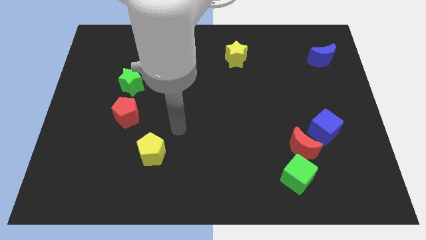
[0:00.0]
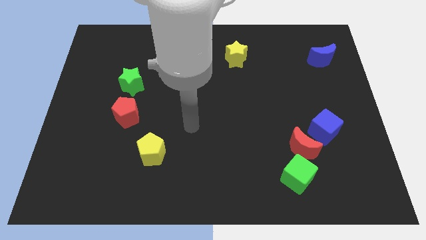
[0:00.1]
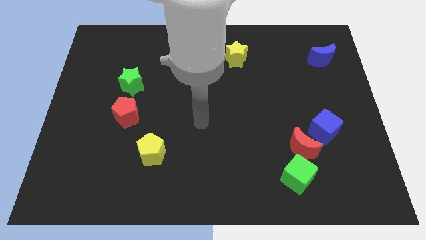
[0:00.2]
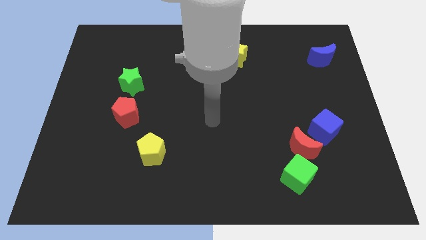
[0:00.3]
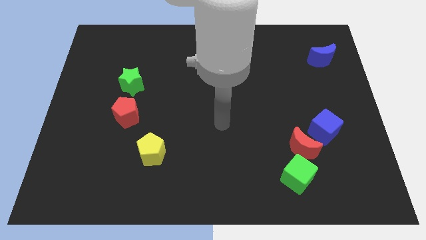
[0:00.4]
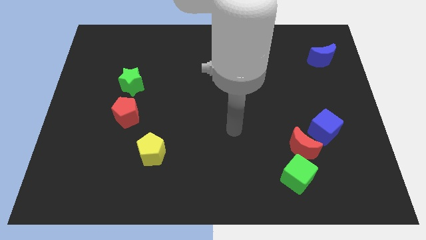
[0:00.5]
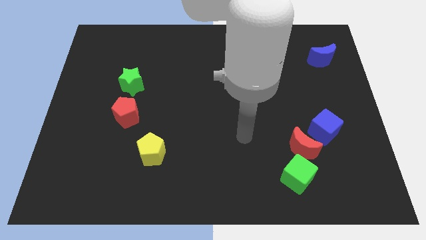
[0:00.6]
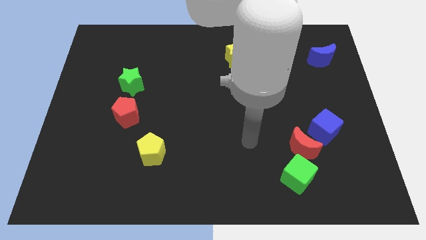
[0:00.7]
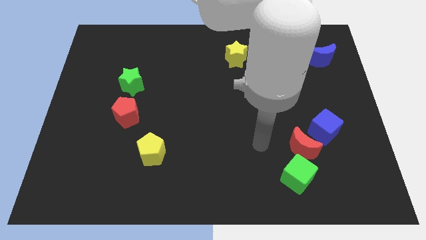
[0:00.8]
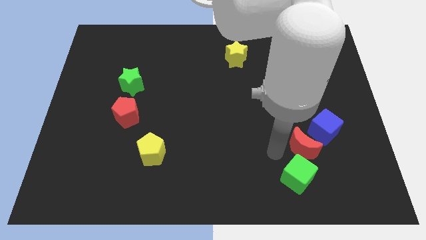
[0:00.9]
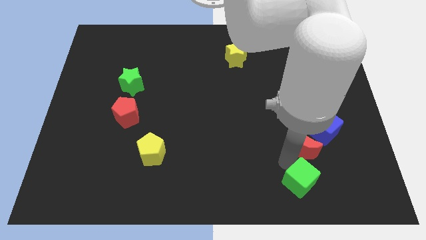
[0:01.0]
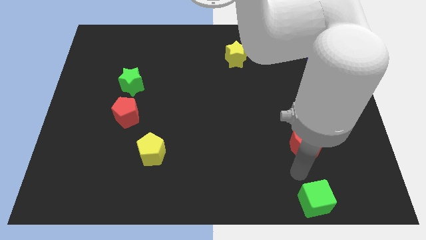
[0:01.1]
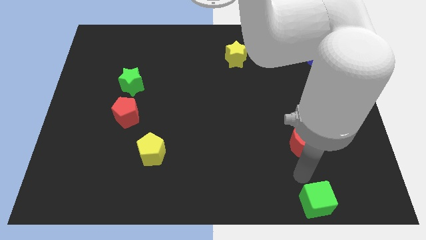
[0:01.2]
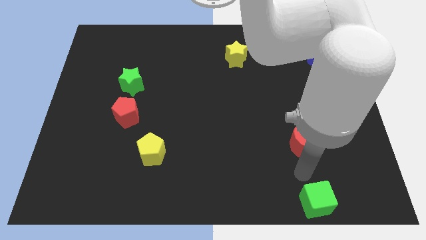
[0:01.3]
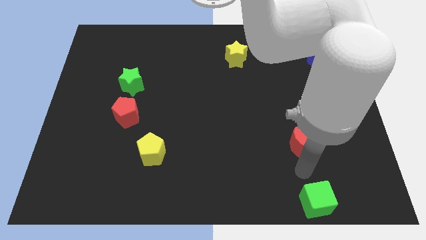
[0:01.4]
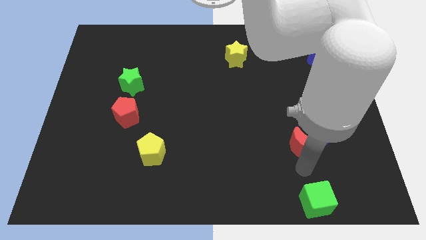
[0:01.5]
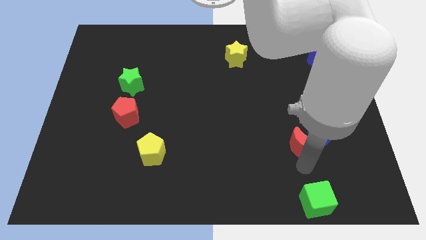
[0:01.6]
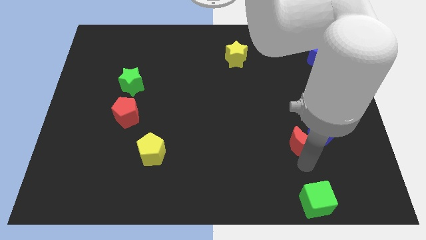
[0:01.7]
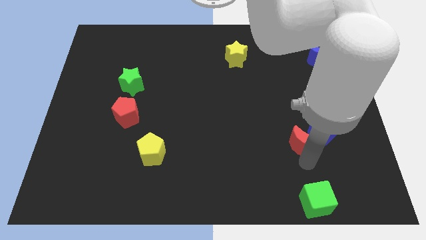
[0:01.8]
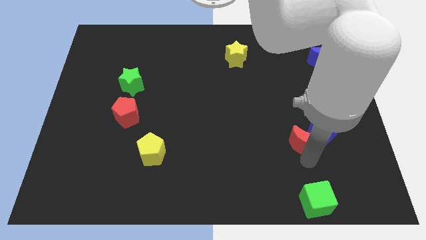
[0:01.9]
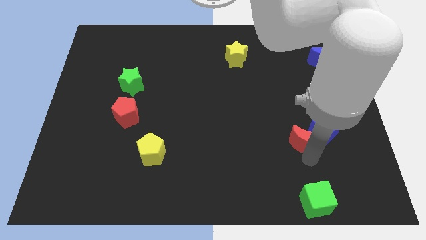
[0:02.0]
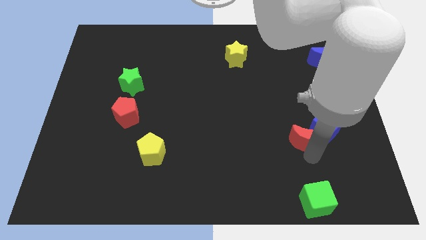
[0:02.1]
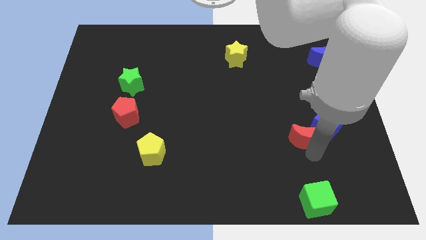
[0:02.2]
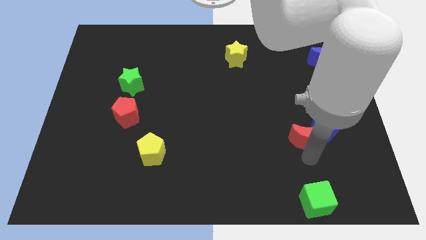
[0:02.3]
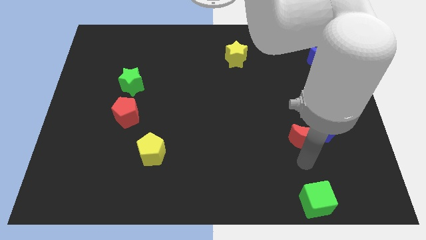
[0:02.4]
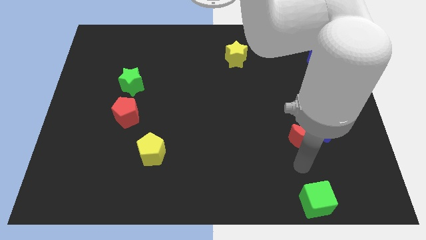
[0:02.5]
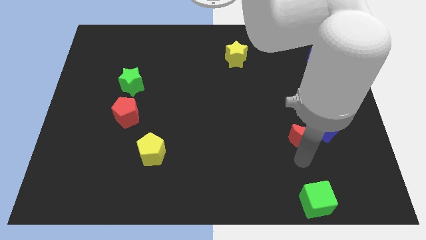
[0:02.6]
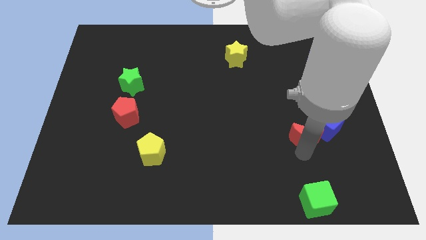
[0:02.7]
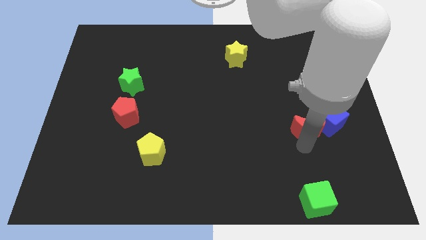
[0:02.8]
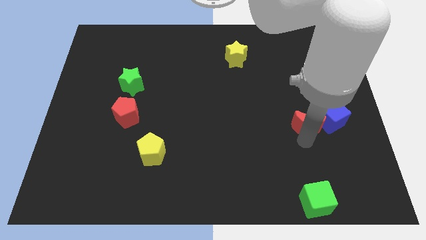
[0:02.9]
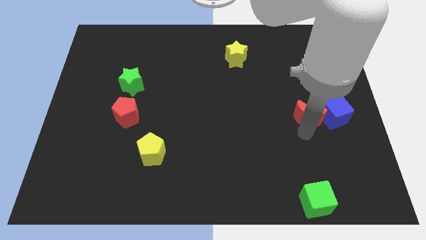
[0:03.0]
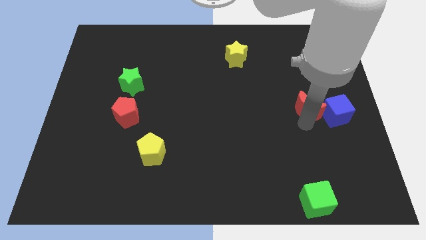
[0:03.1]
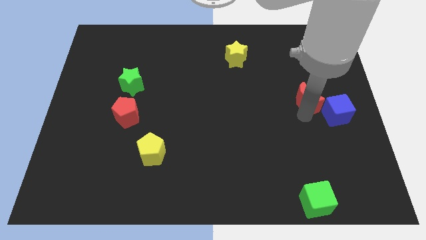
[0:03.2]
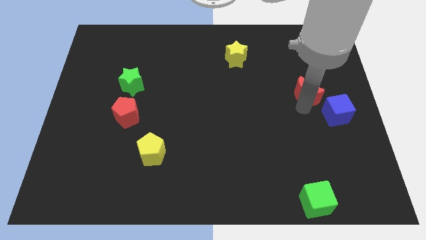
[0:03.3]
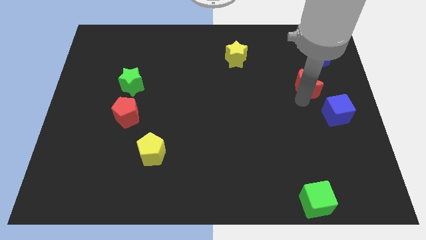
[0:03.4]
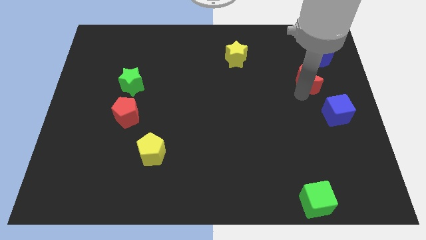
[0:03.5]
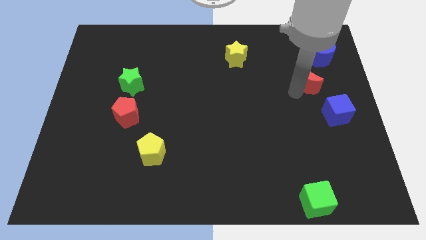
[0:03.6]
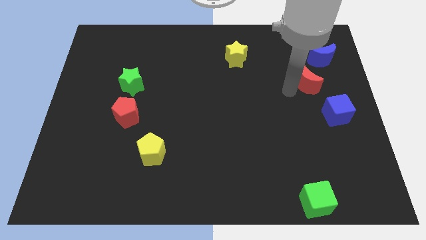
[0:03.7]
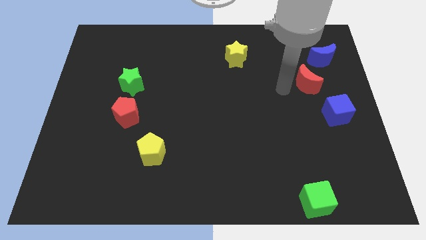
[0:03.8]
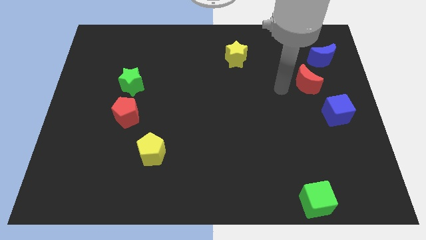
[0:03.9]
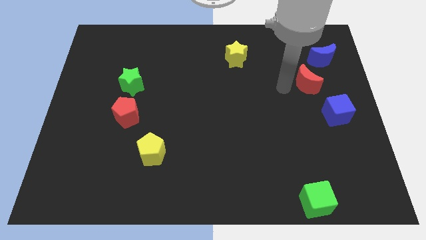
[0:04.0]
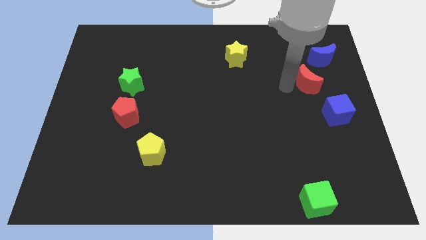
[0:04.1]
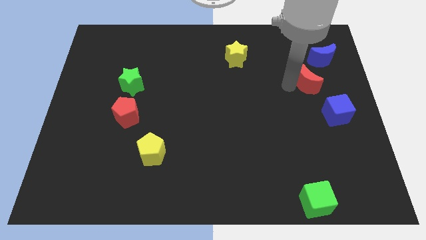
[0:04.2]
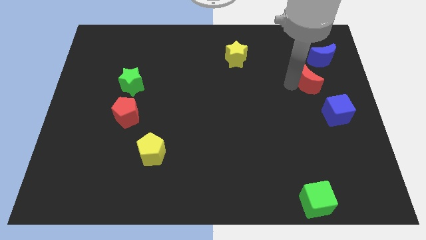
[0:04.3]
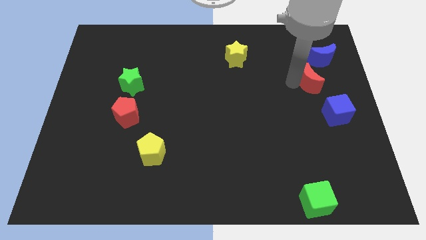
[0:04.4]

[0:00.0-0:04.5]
push the red moon above the blue cube

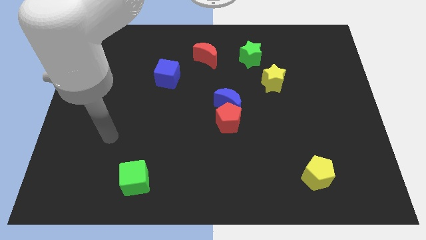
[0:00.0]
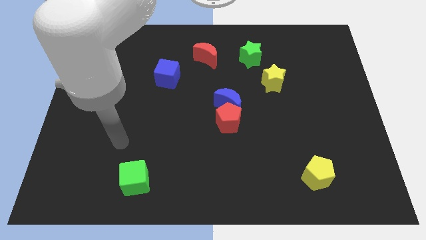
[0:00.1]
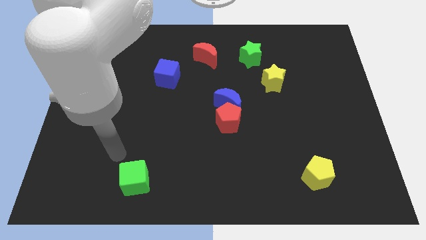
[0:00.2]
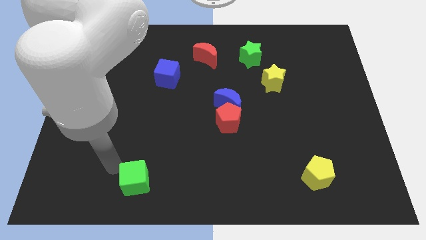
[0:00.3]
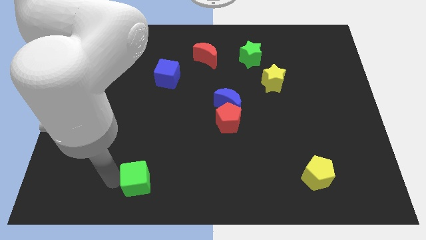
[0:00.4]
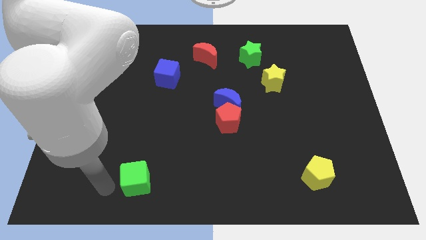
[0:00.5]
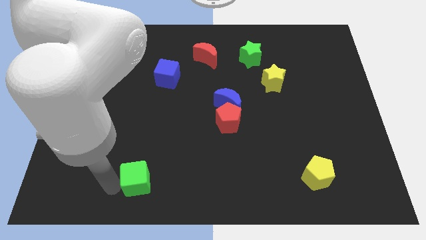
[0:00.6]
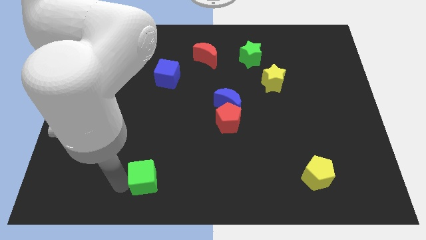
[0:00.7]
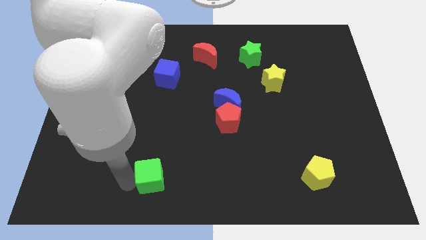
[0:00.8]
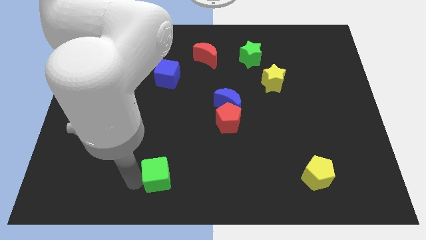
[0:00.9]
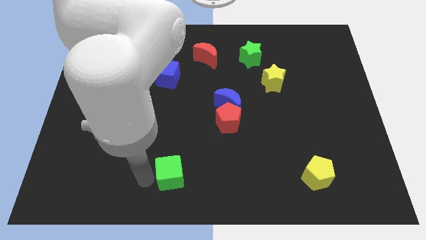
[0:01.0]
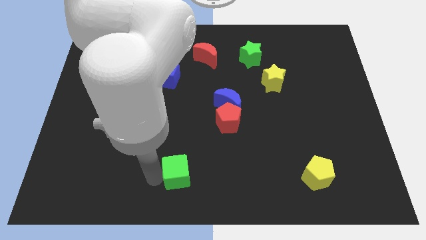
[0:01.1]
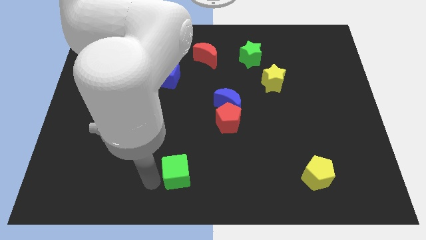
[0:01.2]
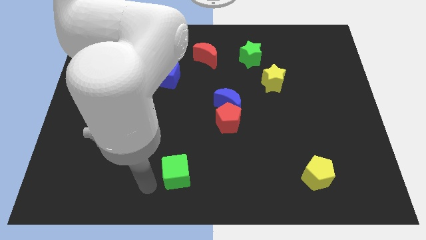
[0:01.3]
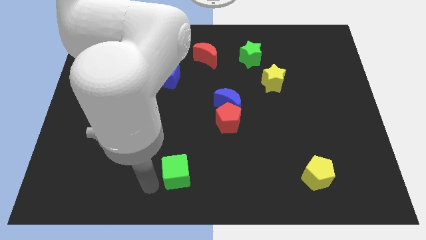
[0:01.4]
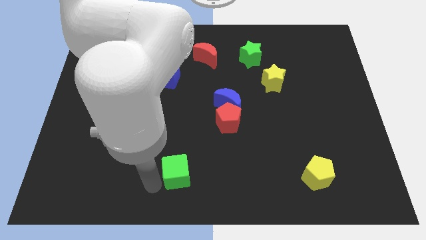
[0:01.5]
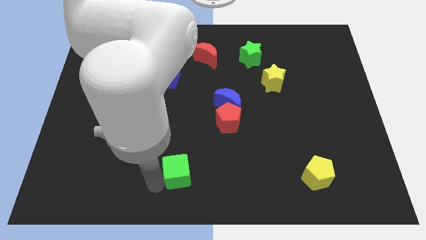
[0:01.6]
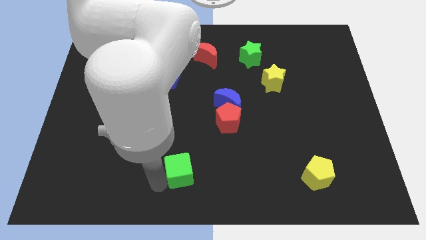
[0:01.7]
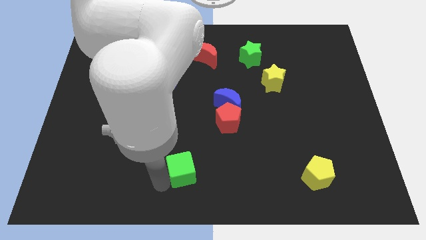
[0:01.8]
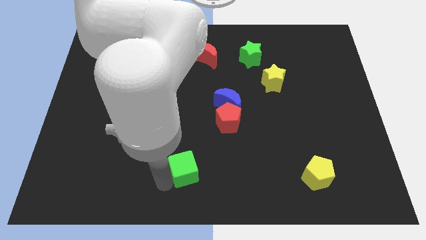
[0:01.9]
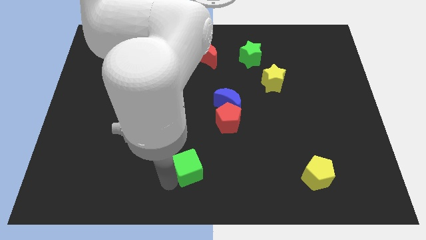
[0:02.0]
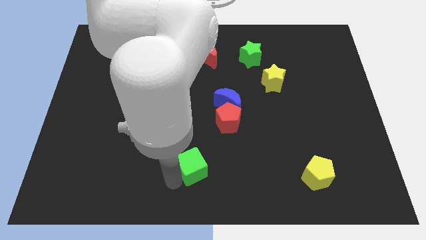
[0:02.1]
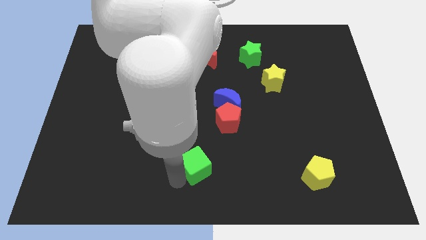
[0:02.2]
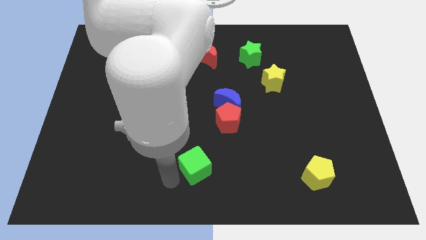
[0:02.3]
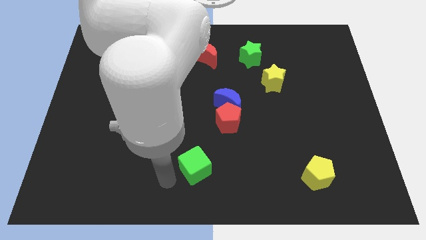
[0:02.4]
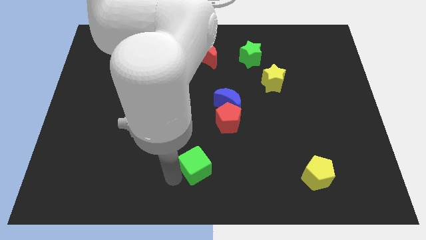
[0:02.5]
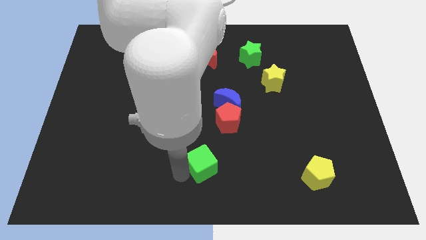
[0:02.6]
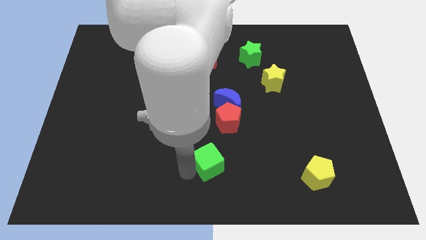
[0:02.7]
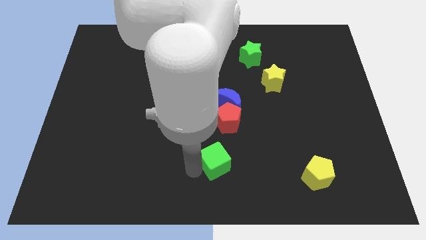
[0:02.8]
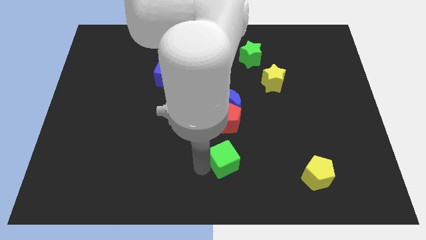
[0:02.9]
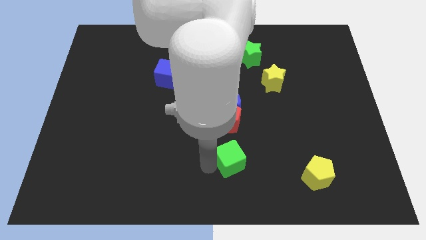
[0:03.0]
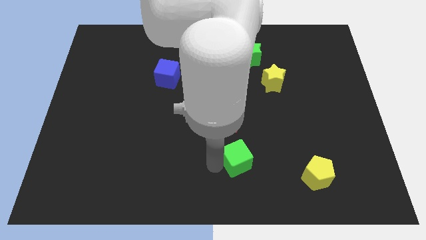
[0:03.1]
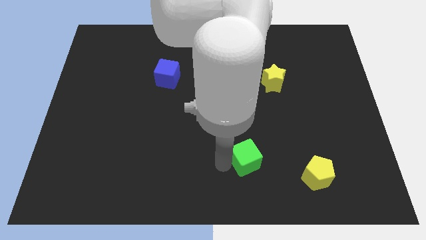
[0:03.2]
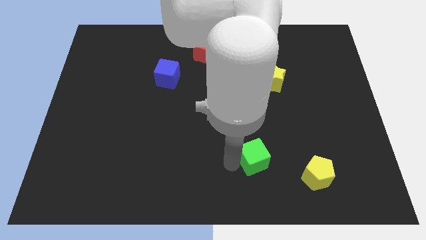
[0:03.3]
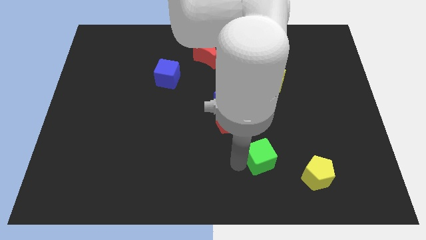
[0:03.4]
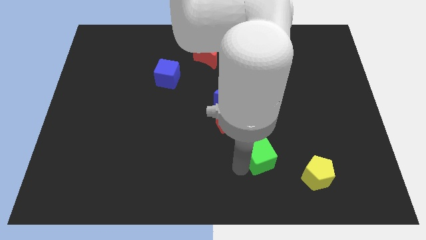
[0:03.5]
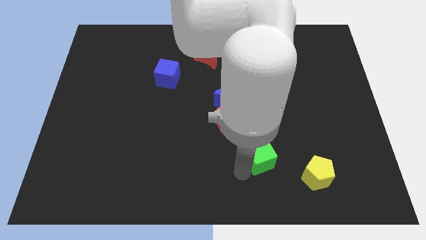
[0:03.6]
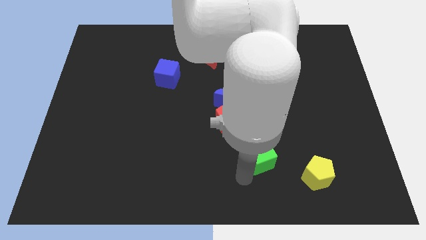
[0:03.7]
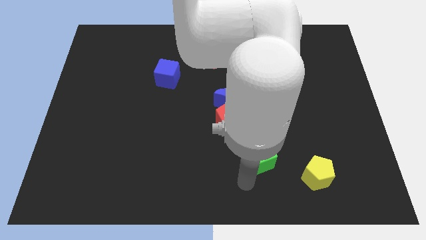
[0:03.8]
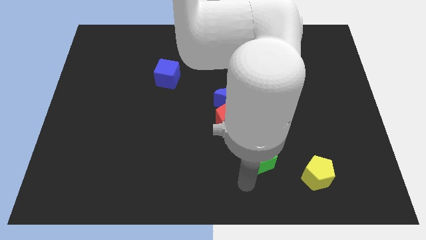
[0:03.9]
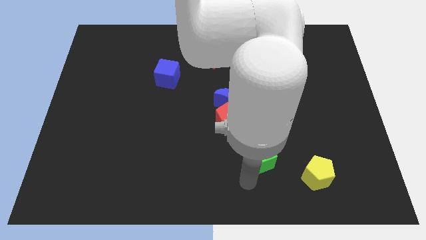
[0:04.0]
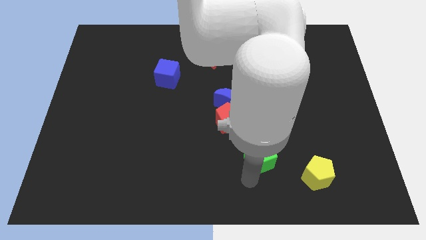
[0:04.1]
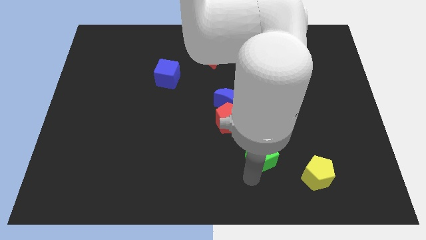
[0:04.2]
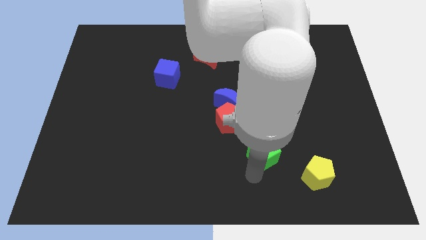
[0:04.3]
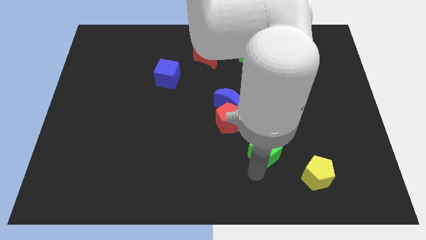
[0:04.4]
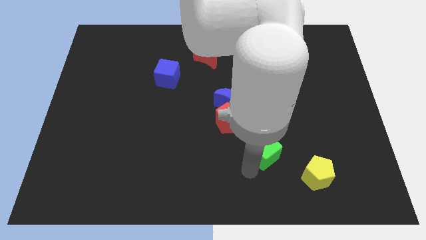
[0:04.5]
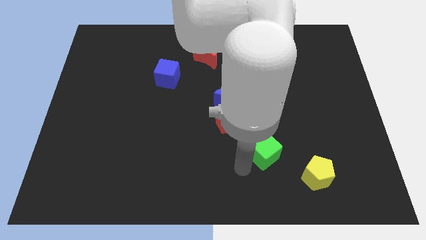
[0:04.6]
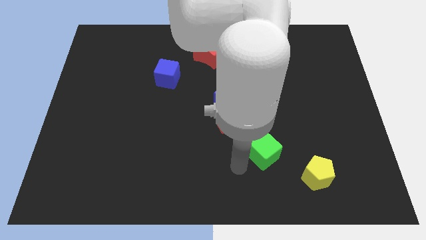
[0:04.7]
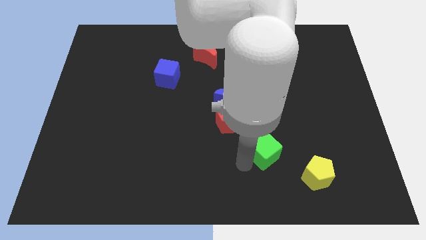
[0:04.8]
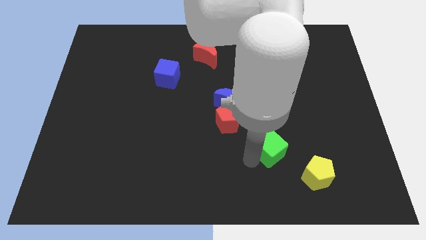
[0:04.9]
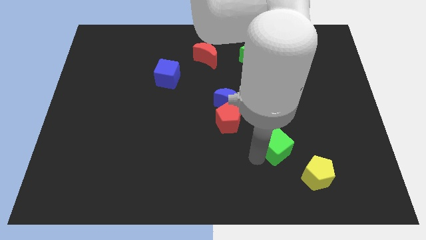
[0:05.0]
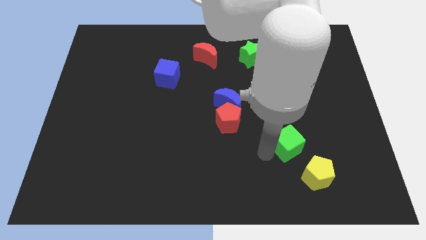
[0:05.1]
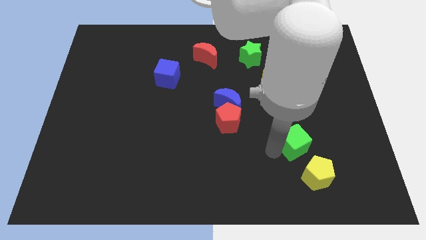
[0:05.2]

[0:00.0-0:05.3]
move the green cube to the top of the yellow pentagon
